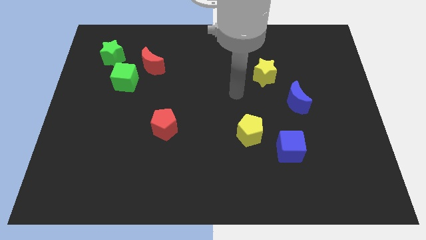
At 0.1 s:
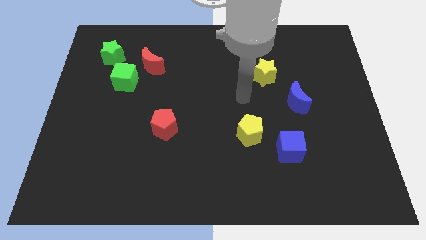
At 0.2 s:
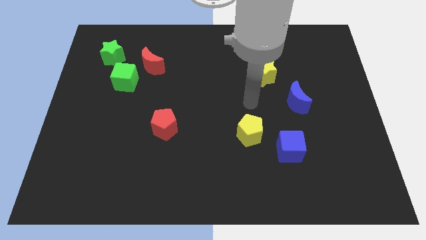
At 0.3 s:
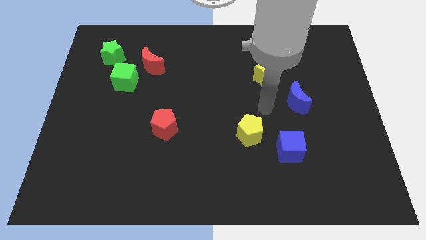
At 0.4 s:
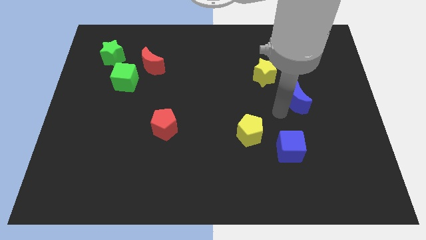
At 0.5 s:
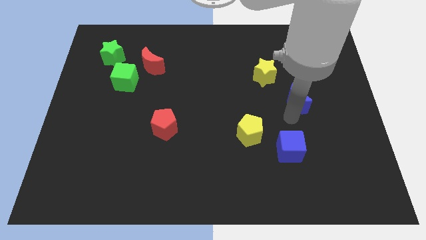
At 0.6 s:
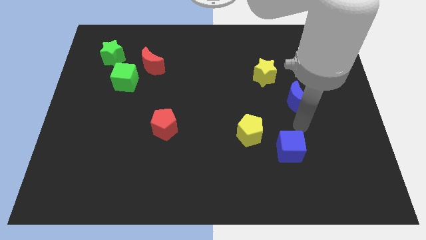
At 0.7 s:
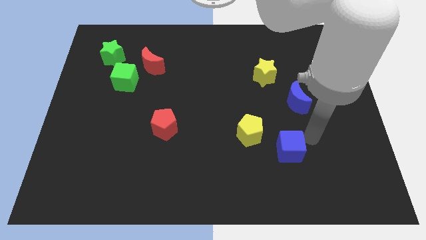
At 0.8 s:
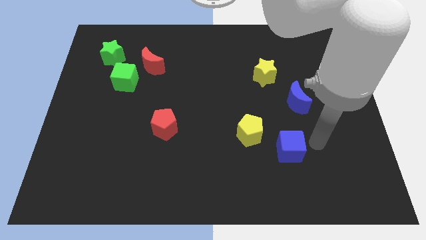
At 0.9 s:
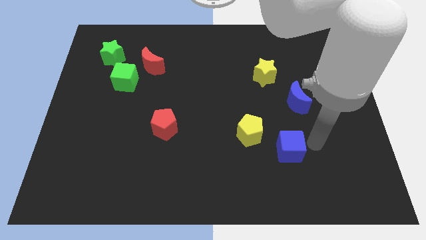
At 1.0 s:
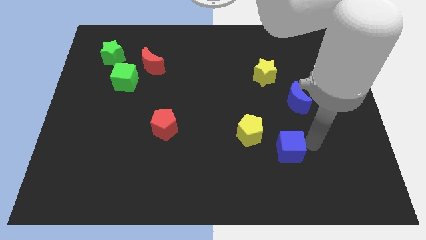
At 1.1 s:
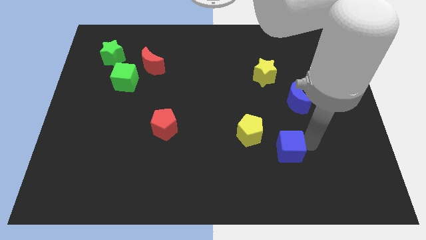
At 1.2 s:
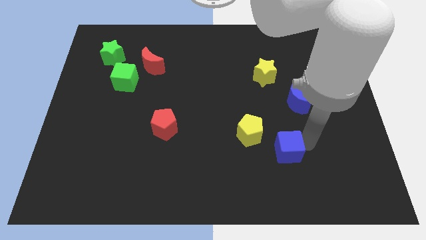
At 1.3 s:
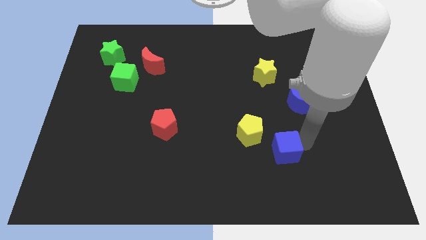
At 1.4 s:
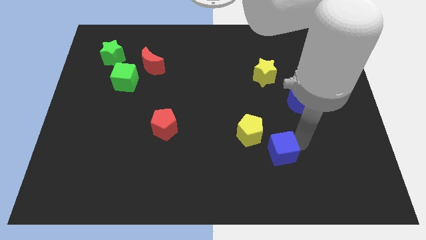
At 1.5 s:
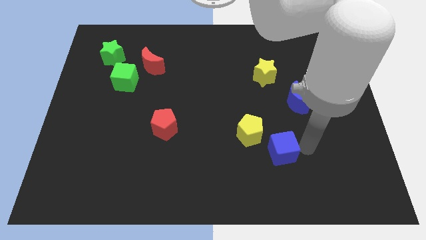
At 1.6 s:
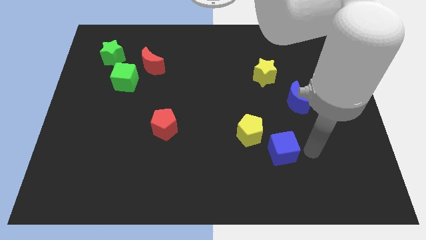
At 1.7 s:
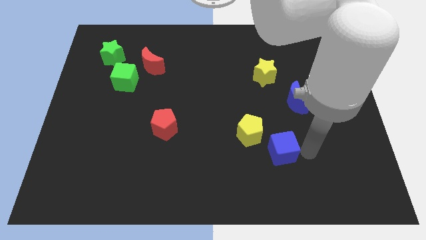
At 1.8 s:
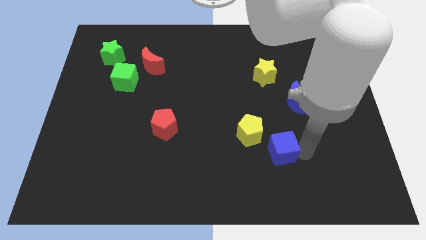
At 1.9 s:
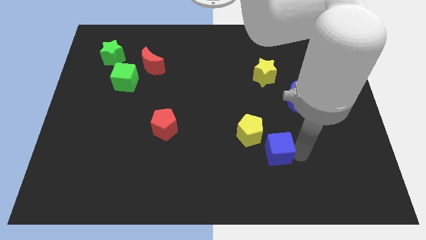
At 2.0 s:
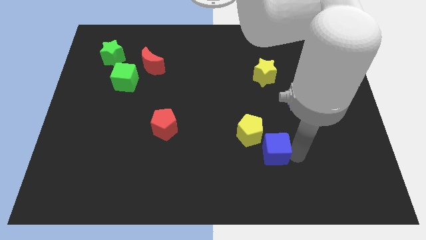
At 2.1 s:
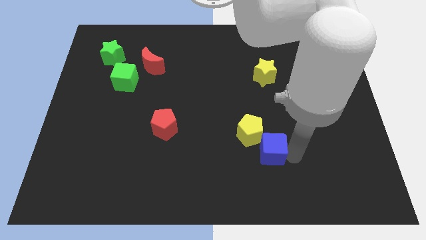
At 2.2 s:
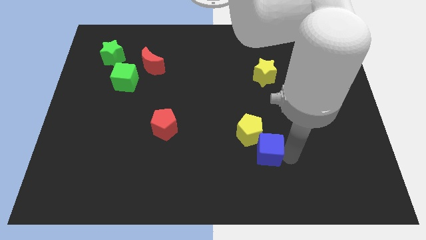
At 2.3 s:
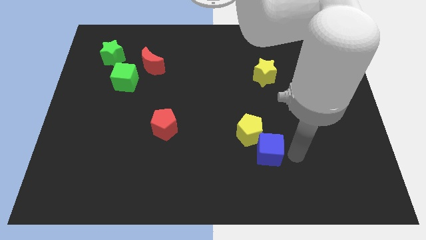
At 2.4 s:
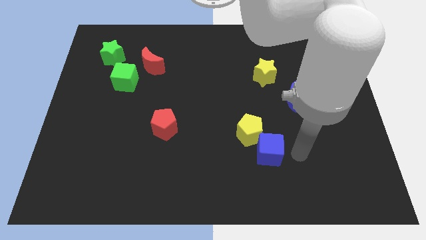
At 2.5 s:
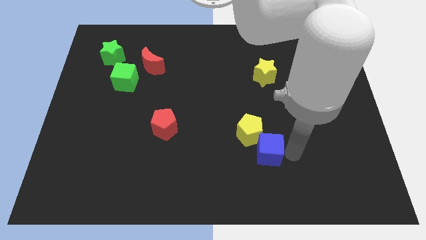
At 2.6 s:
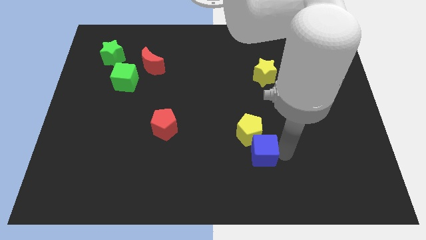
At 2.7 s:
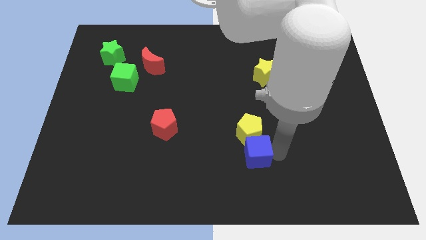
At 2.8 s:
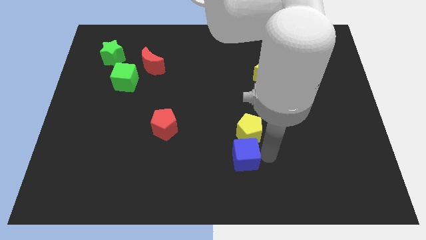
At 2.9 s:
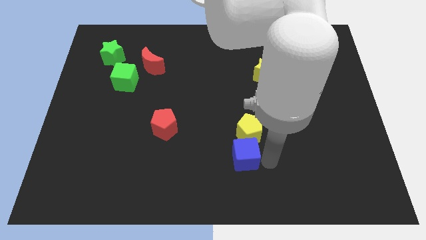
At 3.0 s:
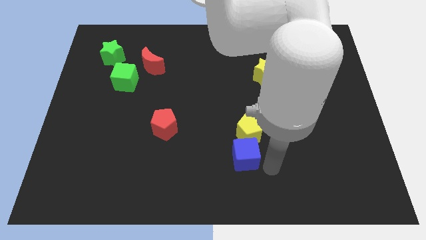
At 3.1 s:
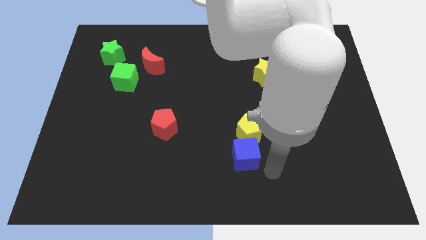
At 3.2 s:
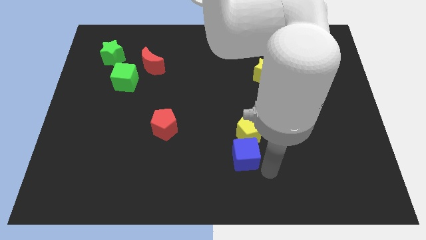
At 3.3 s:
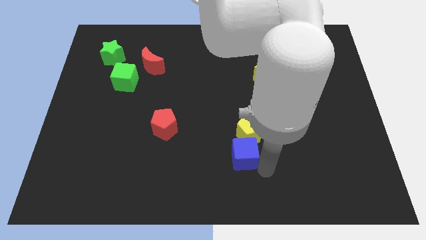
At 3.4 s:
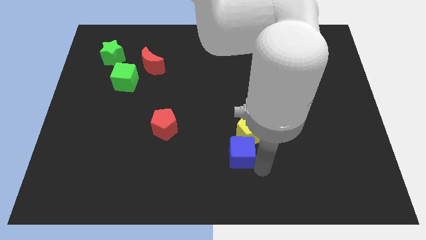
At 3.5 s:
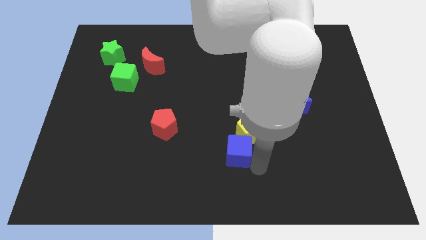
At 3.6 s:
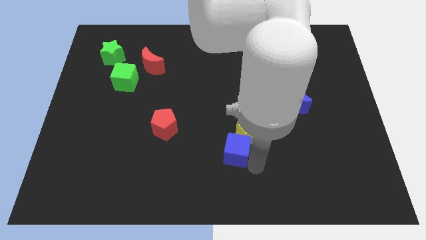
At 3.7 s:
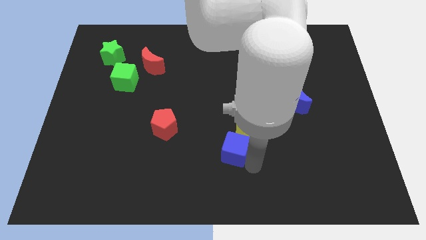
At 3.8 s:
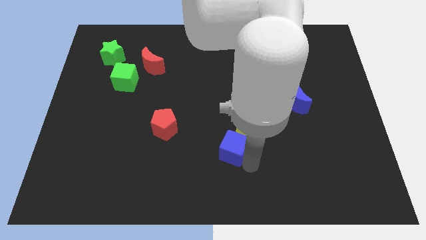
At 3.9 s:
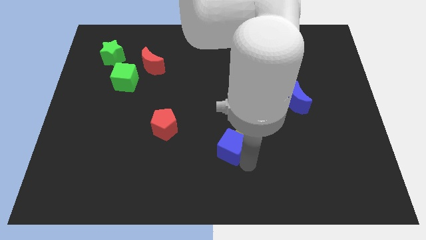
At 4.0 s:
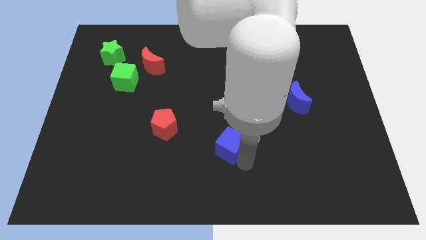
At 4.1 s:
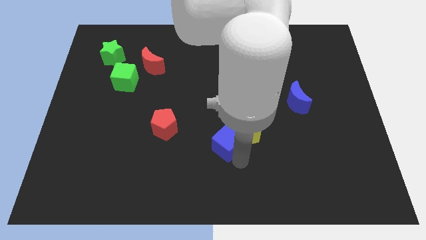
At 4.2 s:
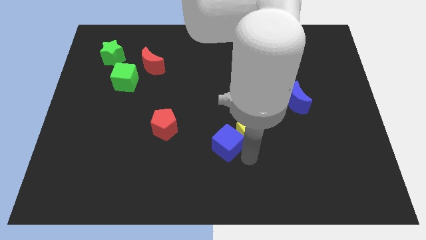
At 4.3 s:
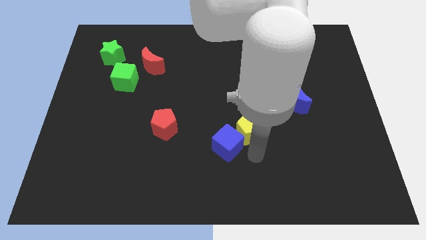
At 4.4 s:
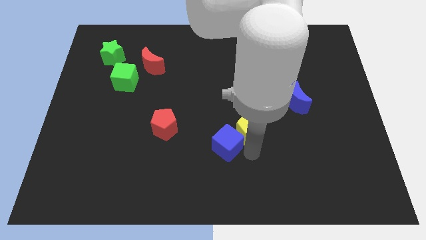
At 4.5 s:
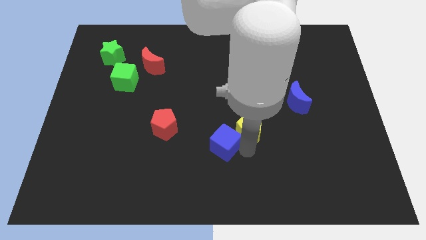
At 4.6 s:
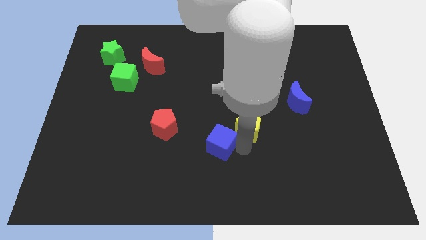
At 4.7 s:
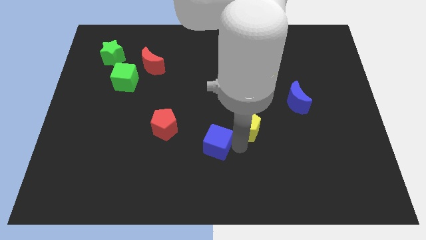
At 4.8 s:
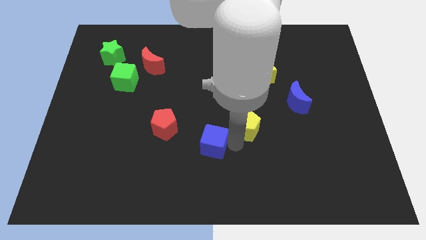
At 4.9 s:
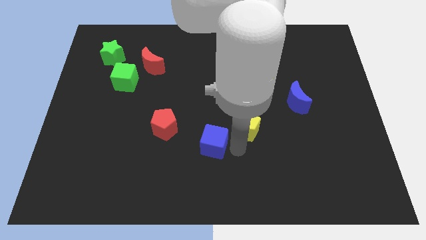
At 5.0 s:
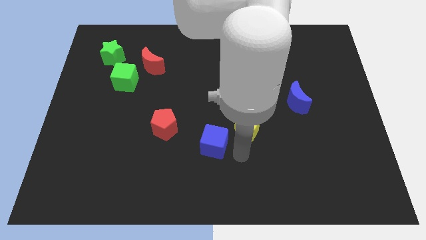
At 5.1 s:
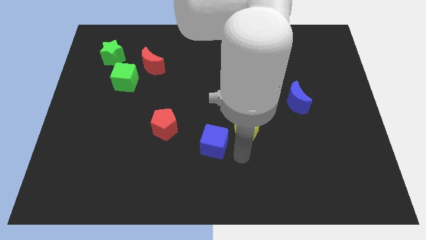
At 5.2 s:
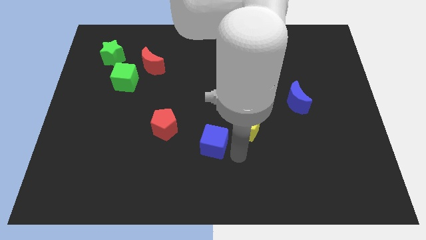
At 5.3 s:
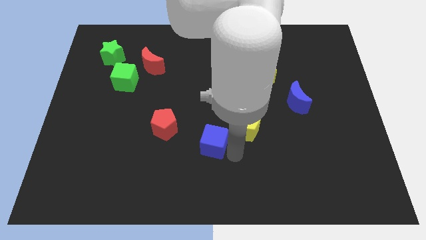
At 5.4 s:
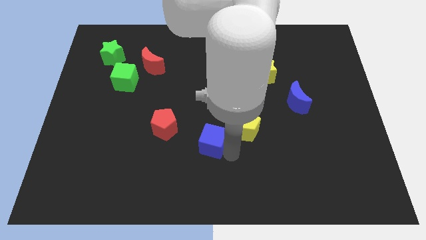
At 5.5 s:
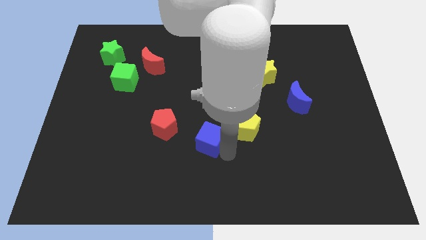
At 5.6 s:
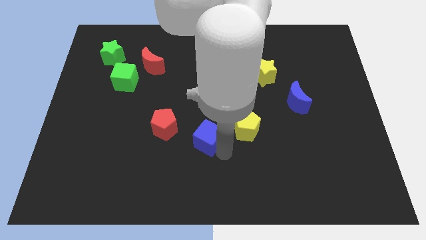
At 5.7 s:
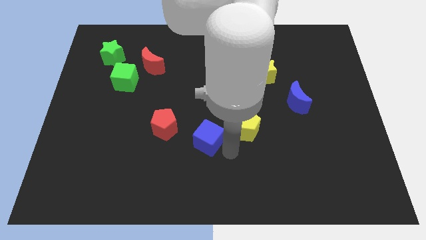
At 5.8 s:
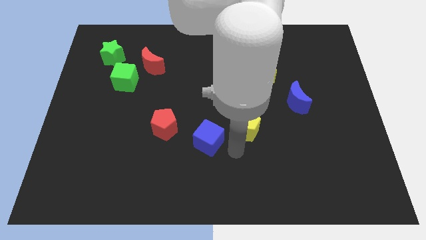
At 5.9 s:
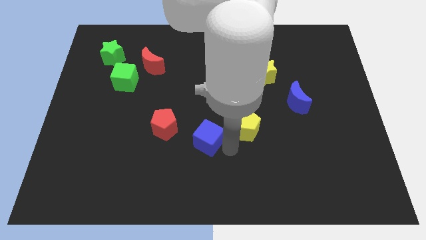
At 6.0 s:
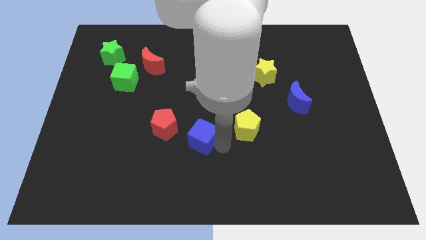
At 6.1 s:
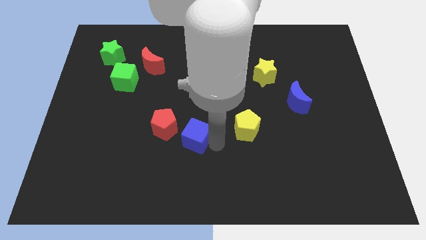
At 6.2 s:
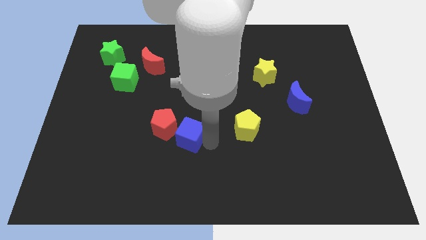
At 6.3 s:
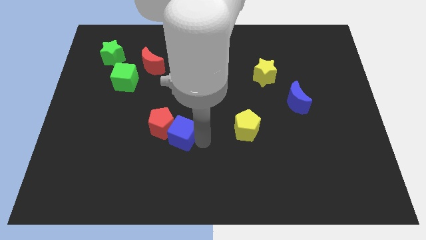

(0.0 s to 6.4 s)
put the blue cube to the red pentagon

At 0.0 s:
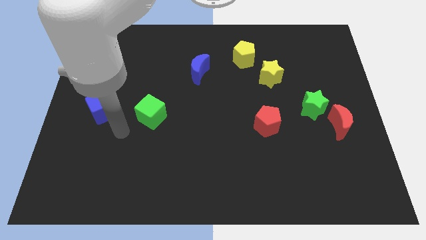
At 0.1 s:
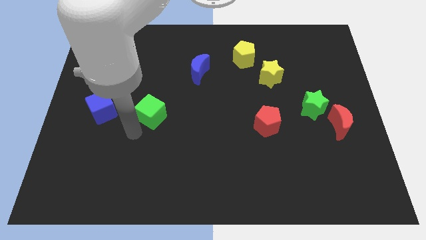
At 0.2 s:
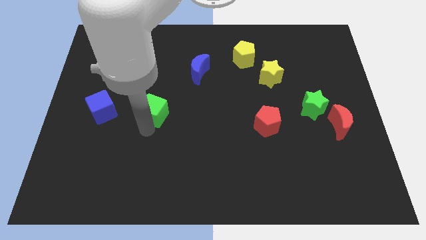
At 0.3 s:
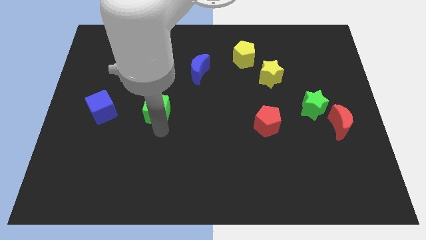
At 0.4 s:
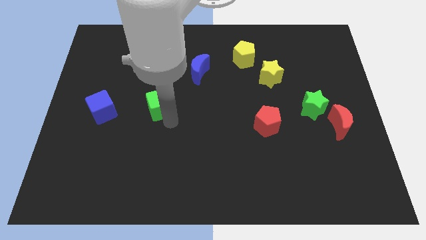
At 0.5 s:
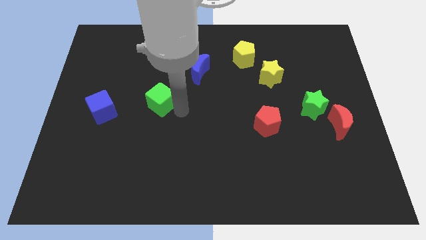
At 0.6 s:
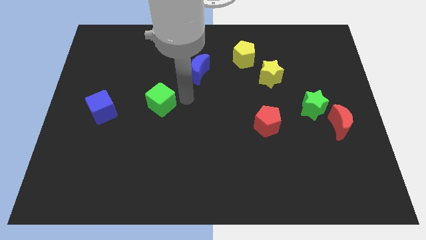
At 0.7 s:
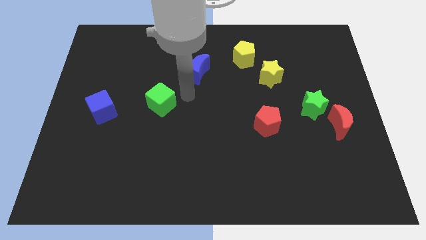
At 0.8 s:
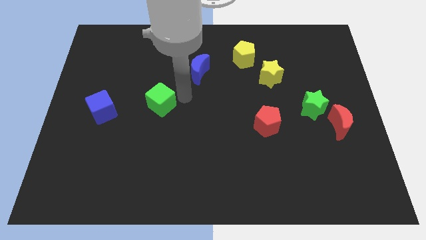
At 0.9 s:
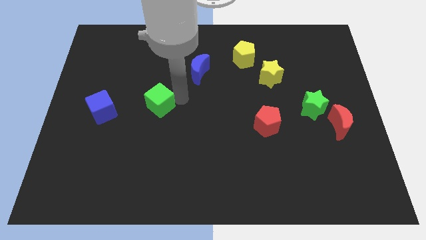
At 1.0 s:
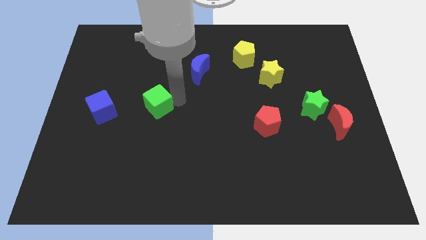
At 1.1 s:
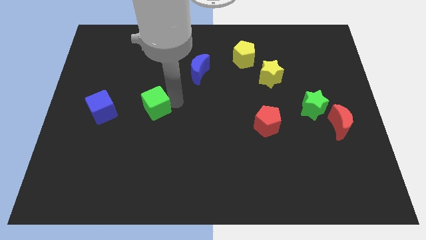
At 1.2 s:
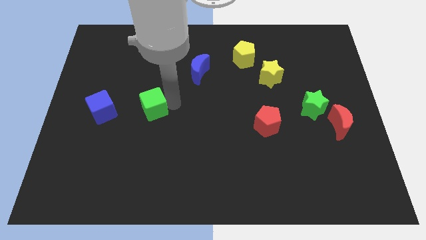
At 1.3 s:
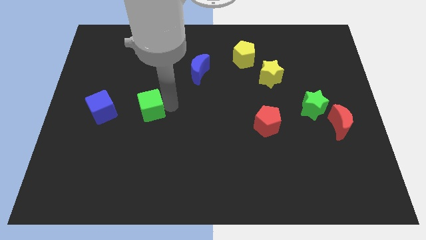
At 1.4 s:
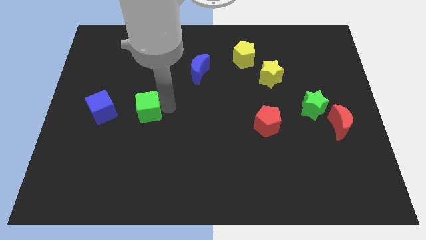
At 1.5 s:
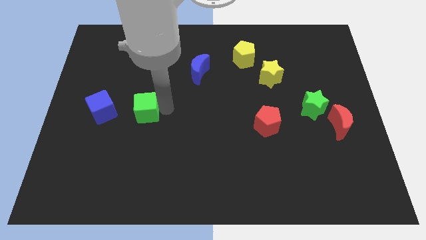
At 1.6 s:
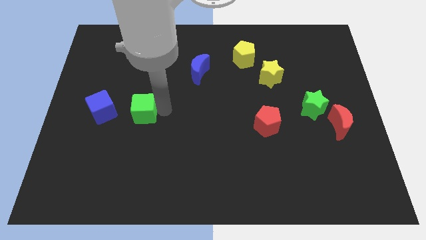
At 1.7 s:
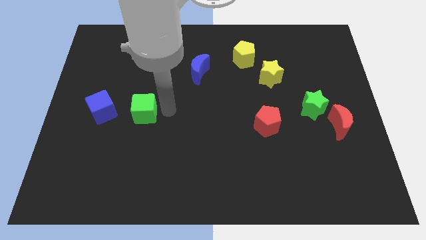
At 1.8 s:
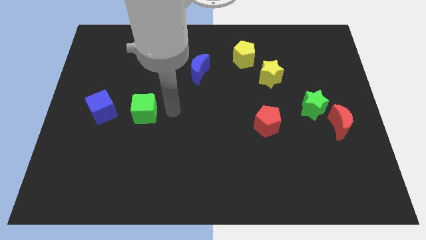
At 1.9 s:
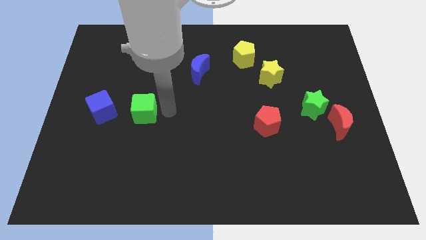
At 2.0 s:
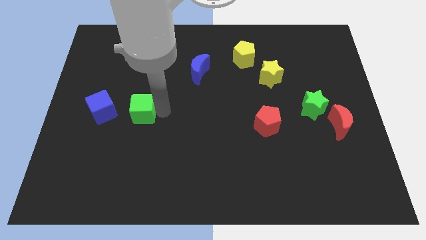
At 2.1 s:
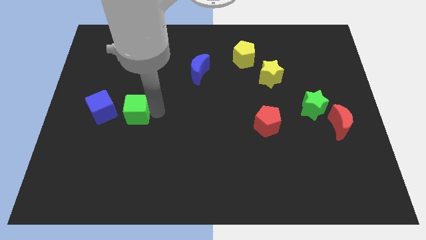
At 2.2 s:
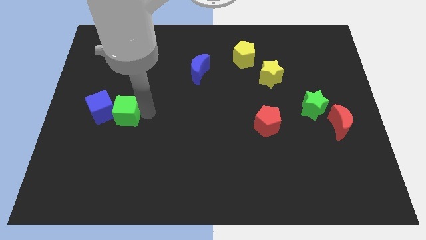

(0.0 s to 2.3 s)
push the green cube towards the blue cube
